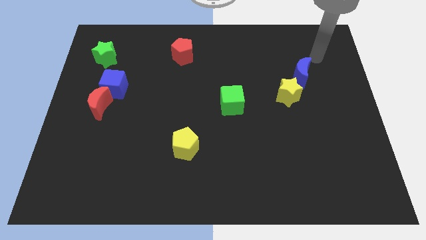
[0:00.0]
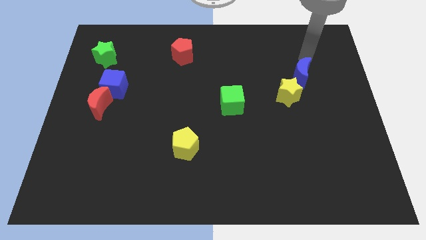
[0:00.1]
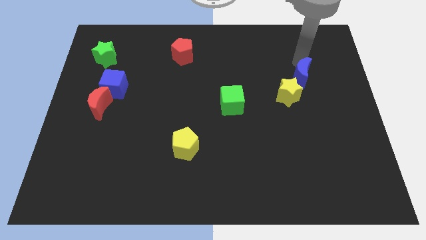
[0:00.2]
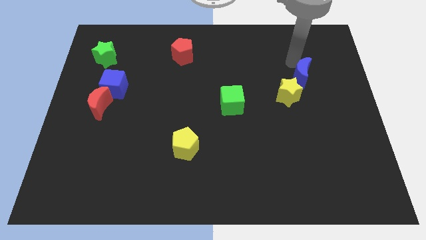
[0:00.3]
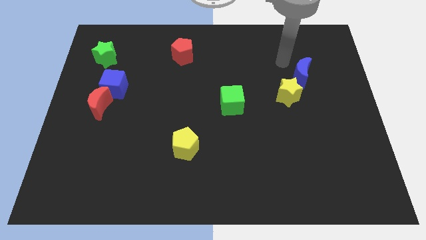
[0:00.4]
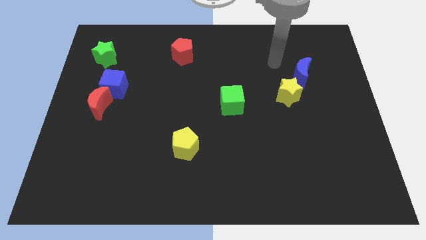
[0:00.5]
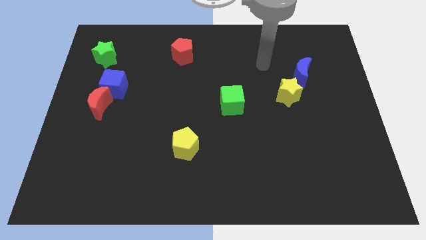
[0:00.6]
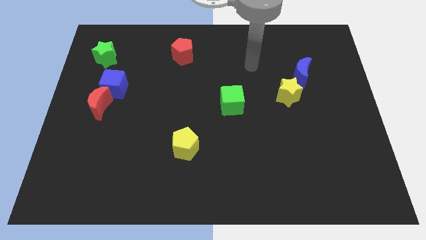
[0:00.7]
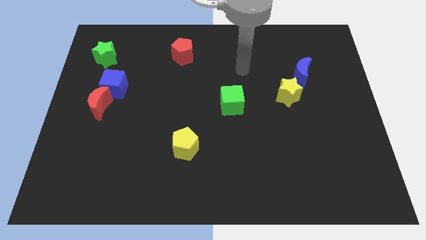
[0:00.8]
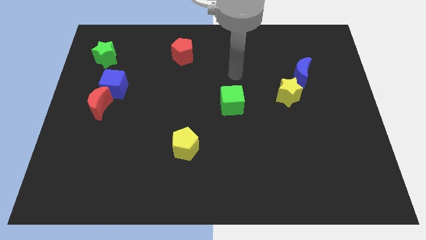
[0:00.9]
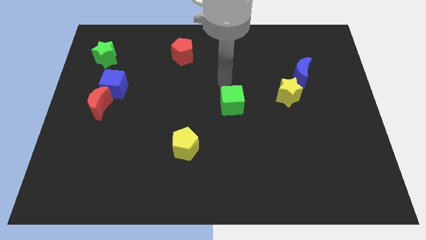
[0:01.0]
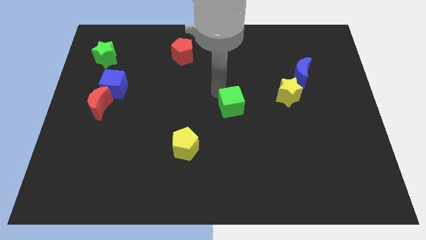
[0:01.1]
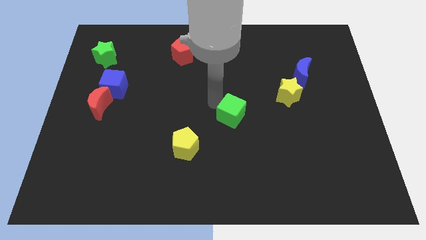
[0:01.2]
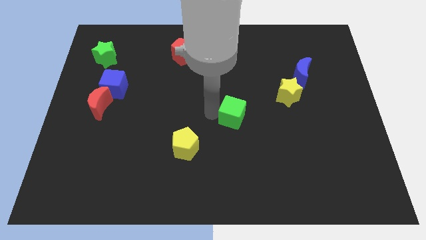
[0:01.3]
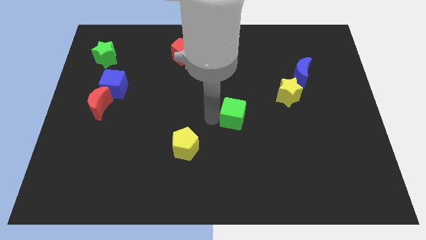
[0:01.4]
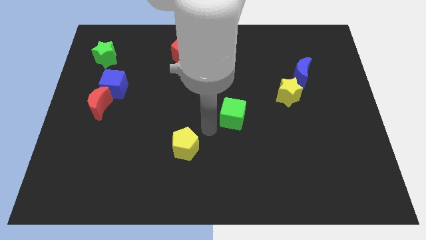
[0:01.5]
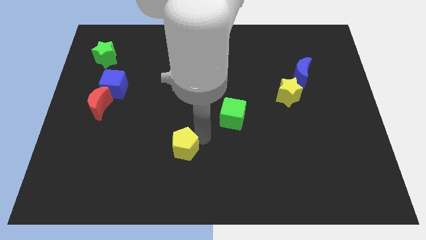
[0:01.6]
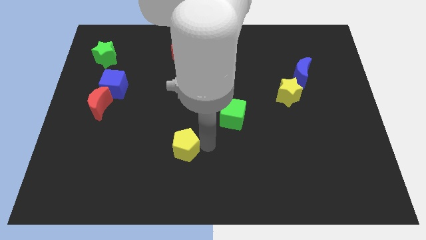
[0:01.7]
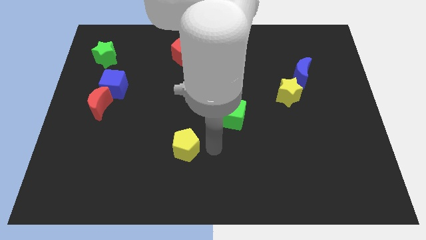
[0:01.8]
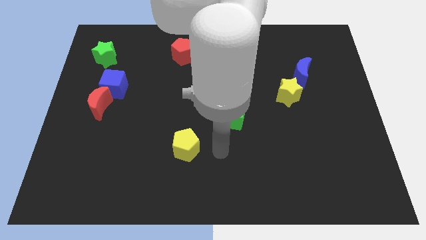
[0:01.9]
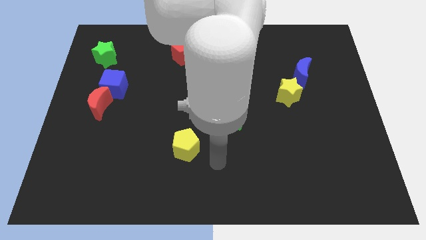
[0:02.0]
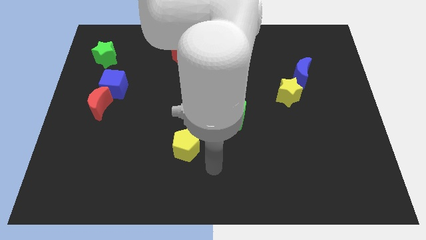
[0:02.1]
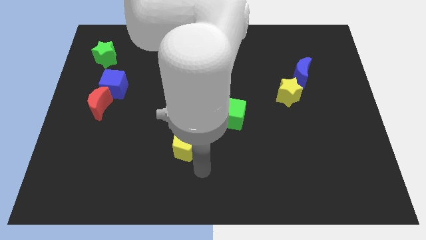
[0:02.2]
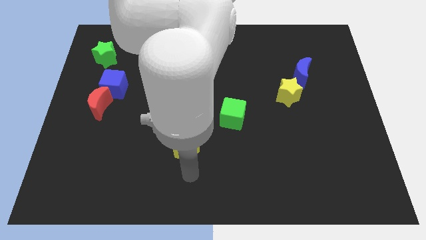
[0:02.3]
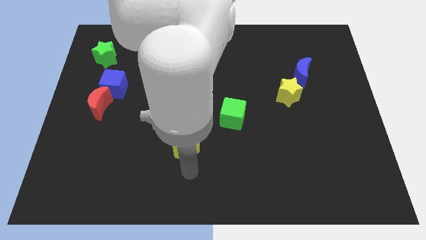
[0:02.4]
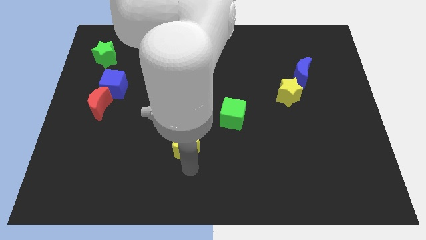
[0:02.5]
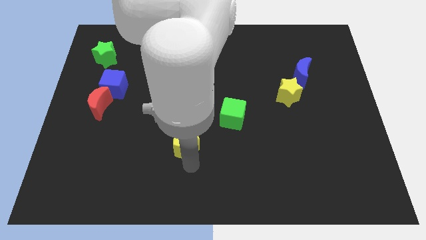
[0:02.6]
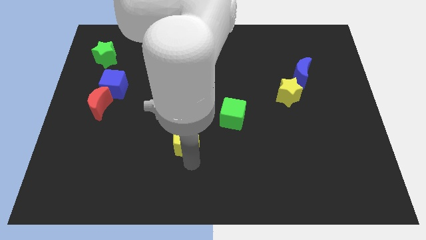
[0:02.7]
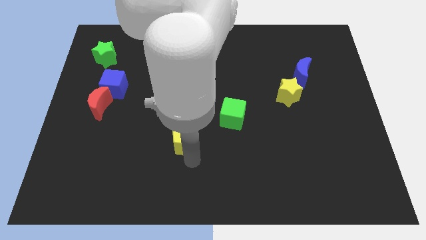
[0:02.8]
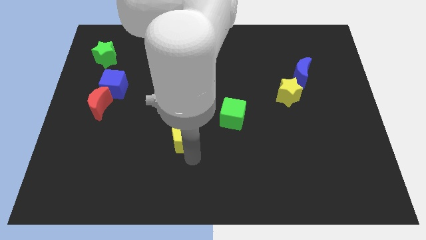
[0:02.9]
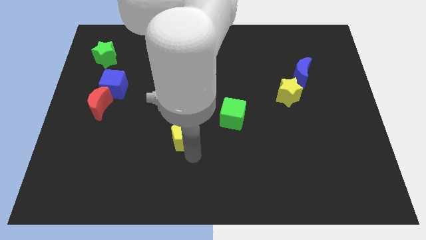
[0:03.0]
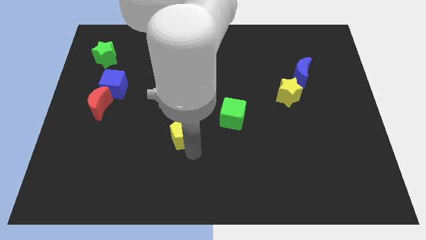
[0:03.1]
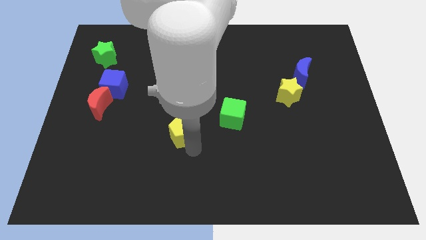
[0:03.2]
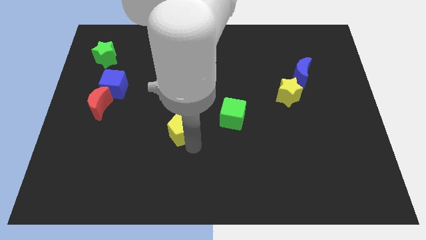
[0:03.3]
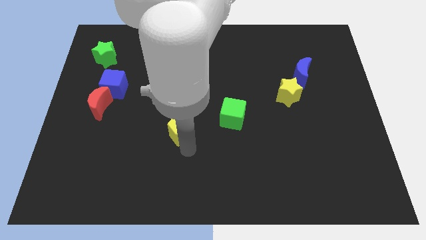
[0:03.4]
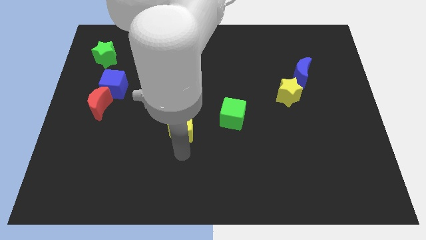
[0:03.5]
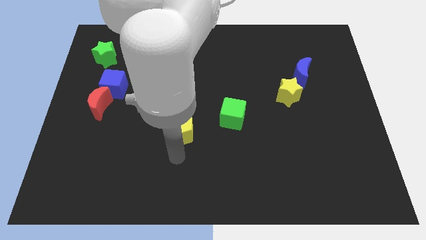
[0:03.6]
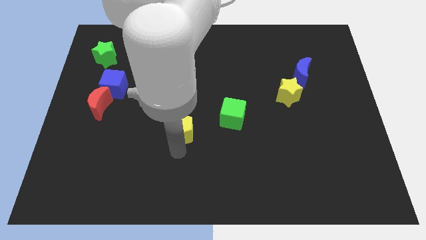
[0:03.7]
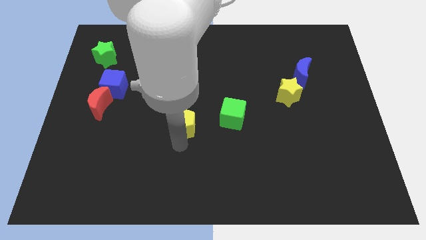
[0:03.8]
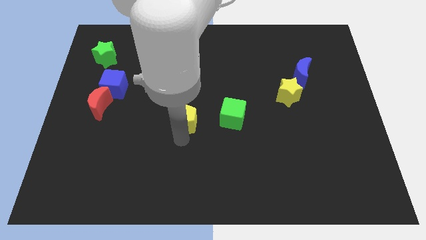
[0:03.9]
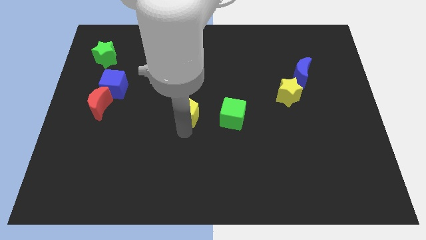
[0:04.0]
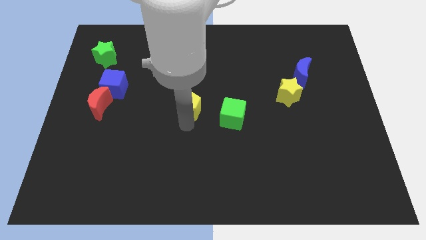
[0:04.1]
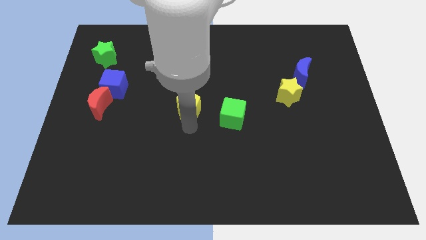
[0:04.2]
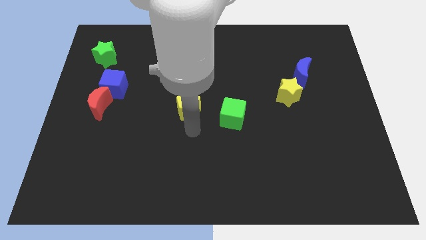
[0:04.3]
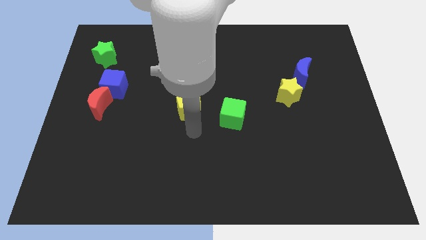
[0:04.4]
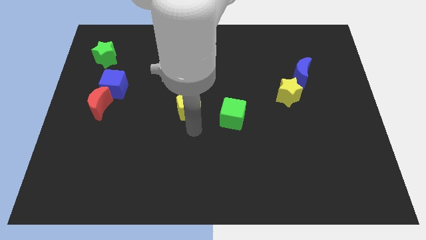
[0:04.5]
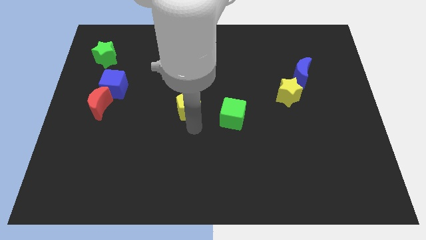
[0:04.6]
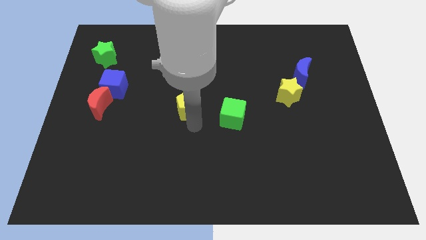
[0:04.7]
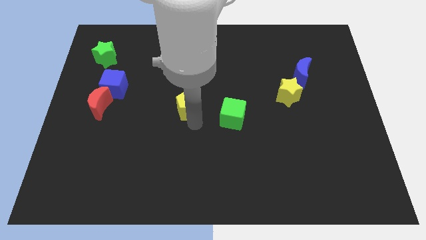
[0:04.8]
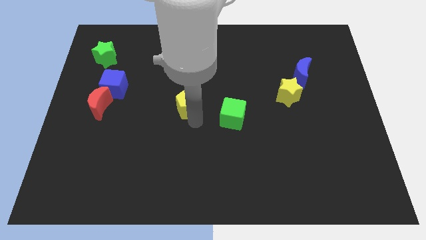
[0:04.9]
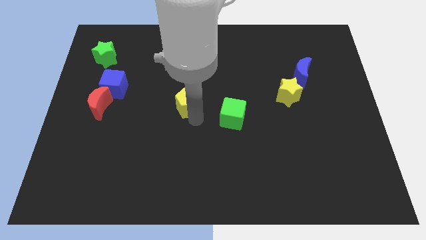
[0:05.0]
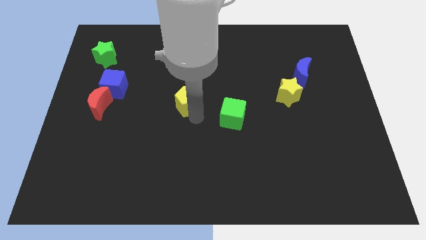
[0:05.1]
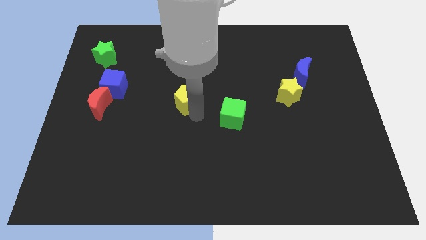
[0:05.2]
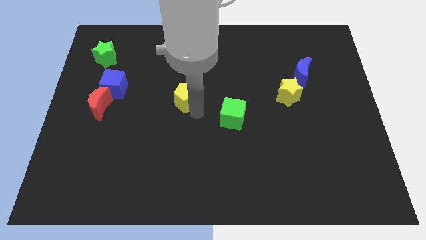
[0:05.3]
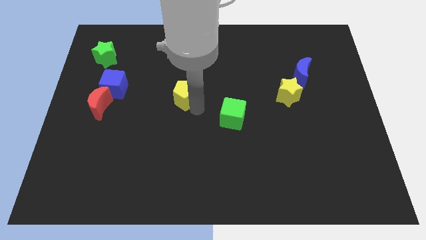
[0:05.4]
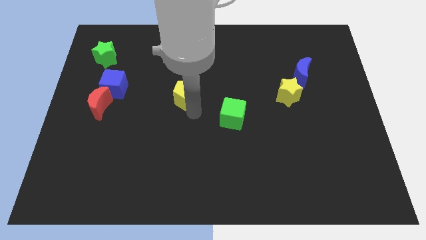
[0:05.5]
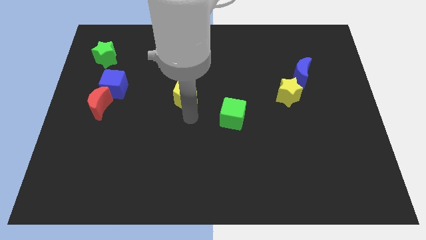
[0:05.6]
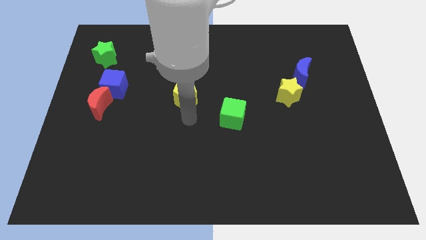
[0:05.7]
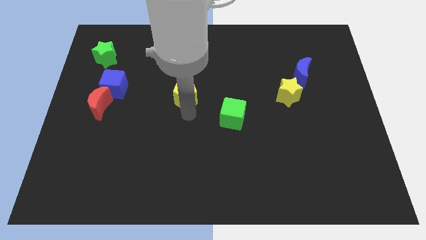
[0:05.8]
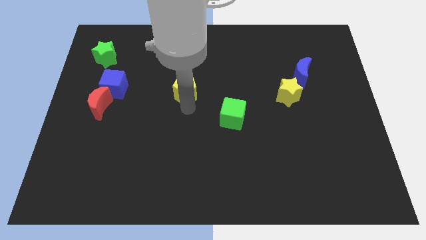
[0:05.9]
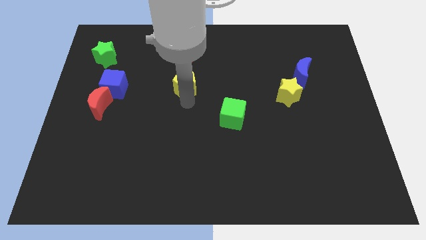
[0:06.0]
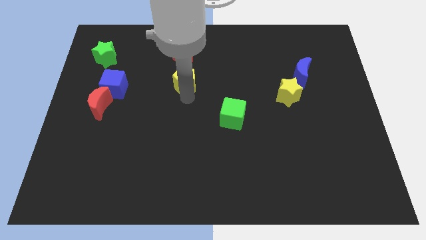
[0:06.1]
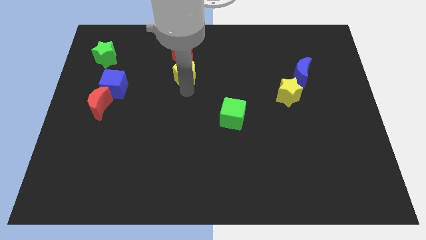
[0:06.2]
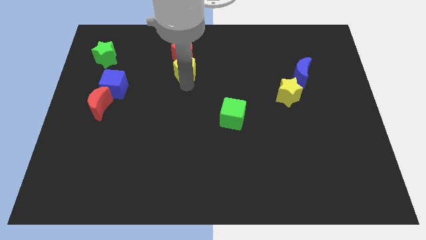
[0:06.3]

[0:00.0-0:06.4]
move the yellow pentagon towards the red pentagon

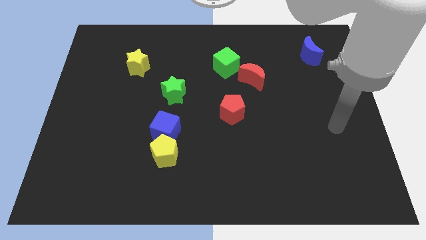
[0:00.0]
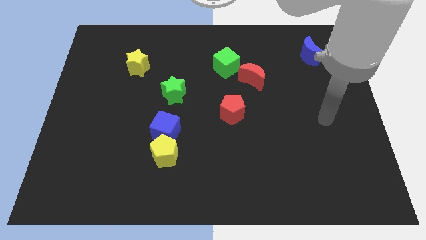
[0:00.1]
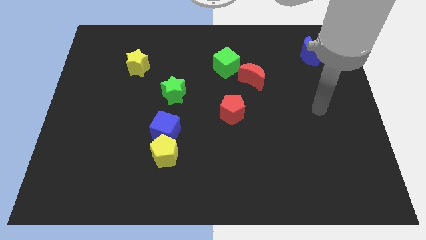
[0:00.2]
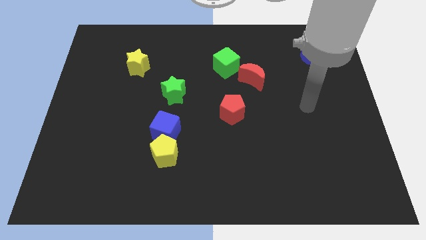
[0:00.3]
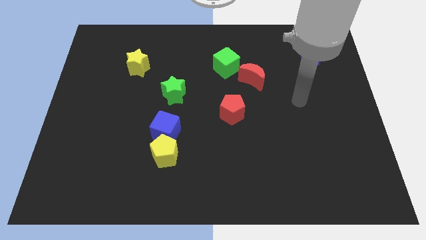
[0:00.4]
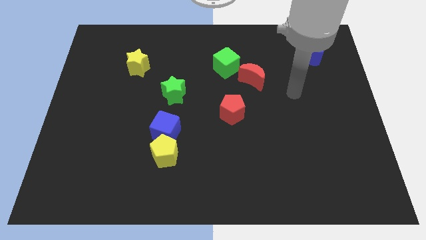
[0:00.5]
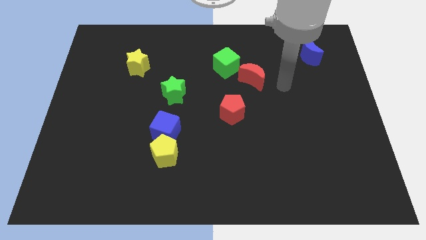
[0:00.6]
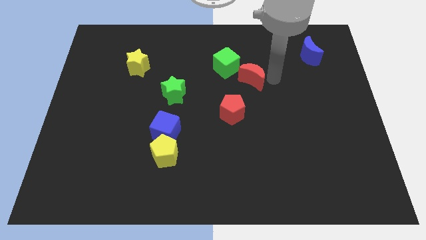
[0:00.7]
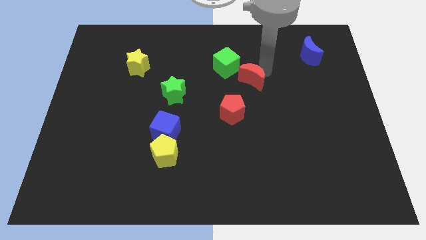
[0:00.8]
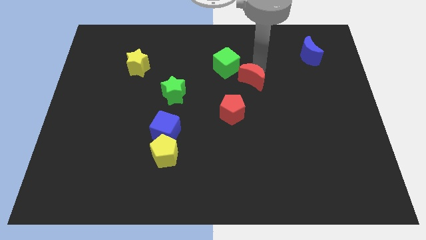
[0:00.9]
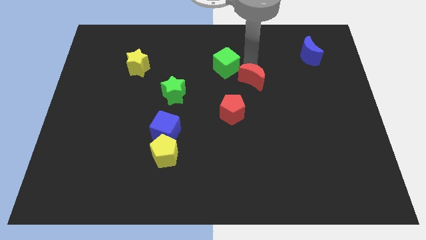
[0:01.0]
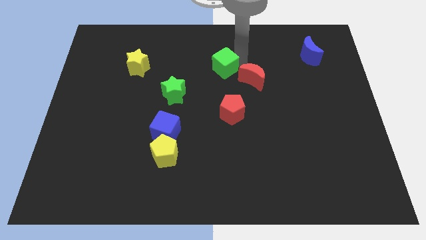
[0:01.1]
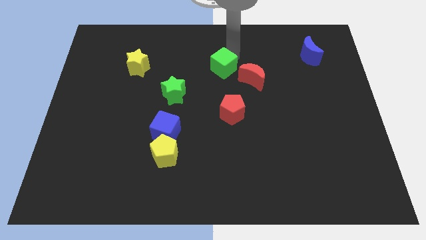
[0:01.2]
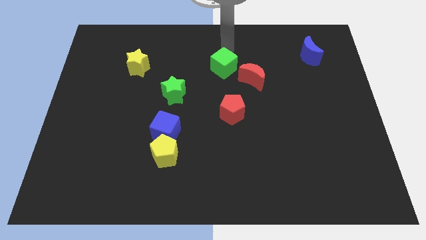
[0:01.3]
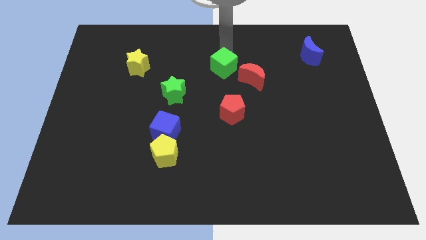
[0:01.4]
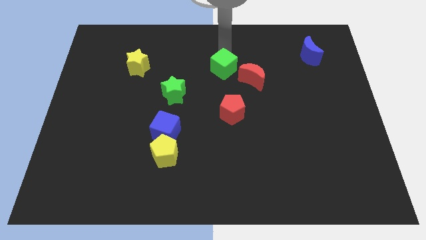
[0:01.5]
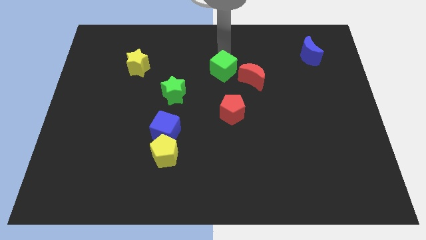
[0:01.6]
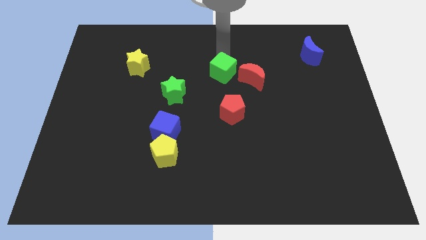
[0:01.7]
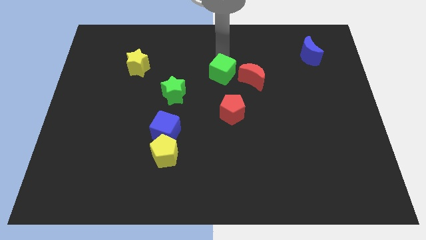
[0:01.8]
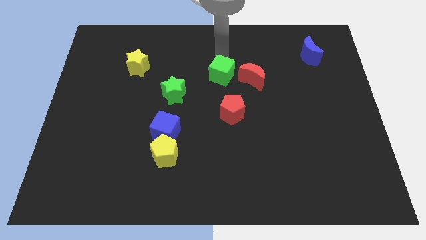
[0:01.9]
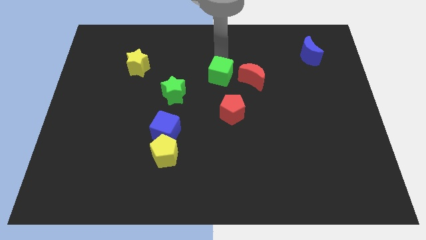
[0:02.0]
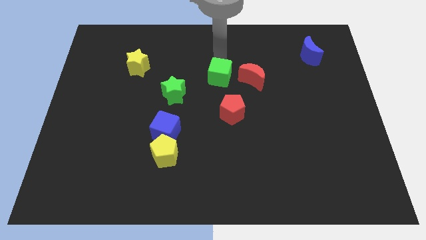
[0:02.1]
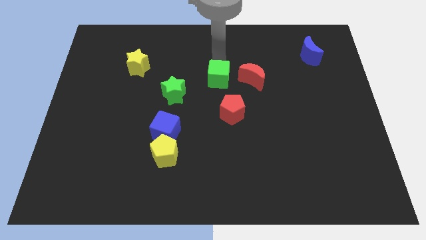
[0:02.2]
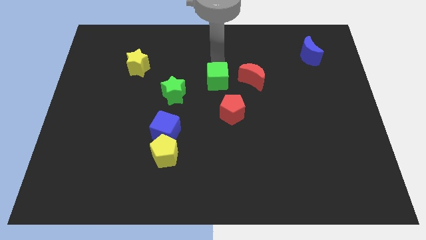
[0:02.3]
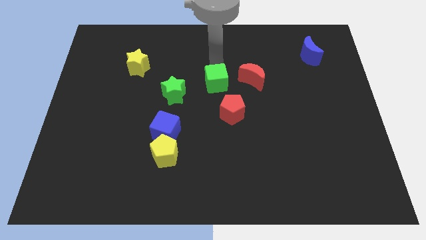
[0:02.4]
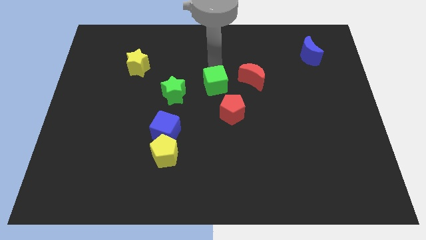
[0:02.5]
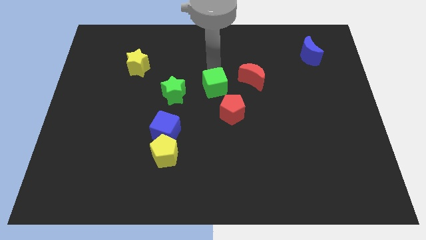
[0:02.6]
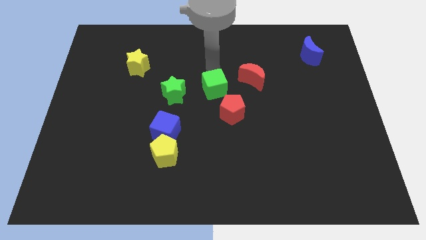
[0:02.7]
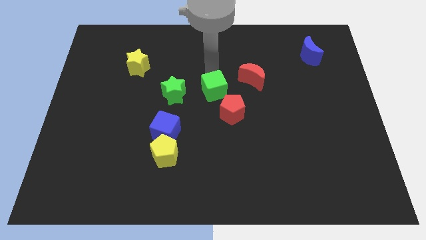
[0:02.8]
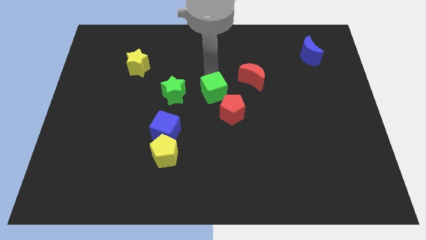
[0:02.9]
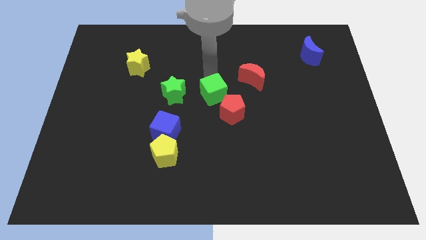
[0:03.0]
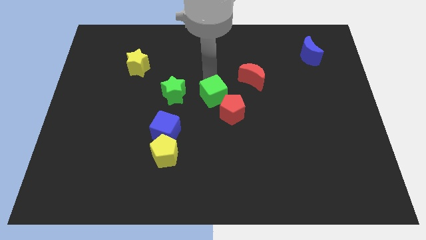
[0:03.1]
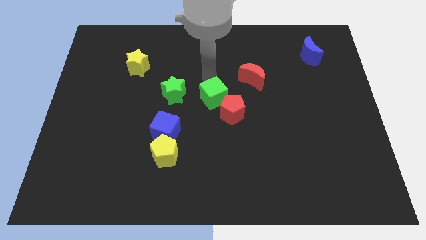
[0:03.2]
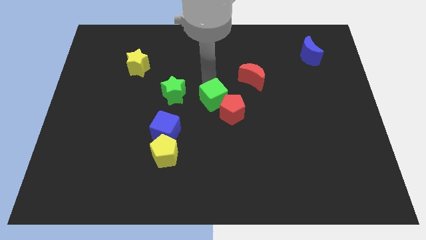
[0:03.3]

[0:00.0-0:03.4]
put the green cube close to the red pentagon
